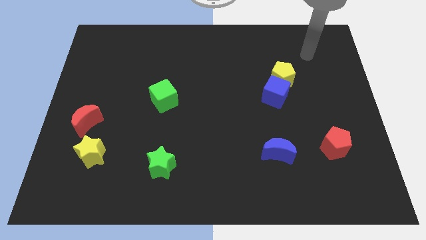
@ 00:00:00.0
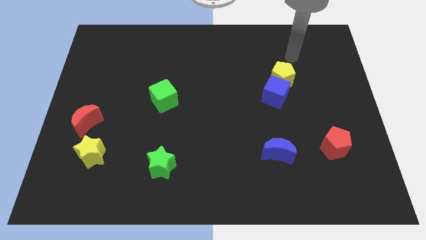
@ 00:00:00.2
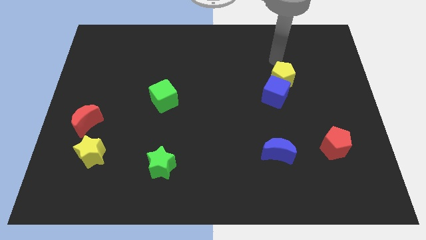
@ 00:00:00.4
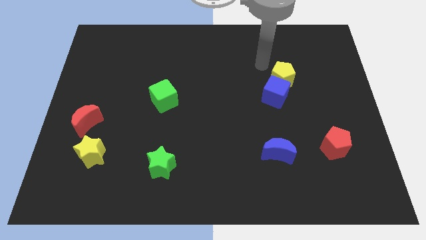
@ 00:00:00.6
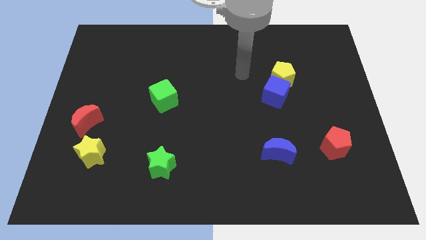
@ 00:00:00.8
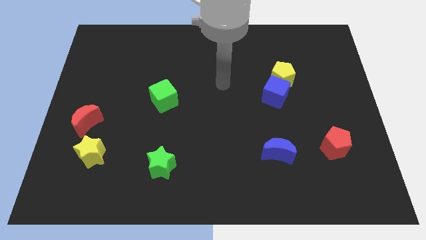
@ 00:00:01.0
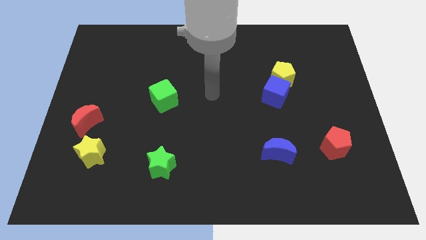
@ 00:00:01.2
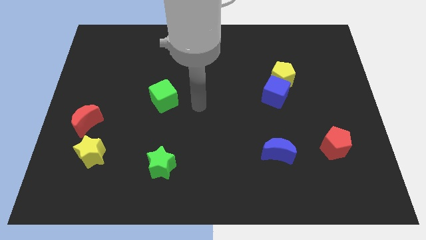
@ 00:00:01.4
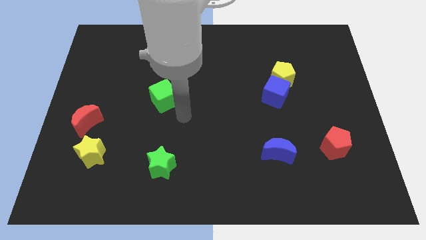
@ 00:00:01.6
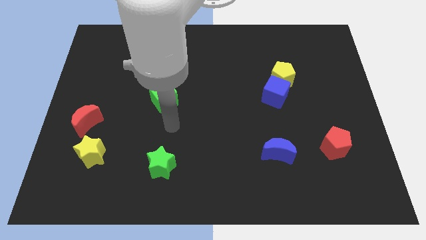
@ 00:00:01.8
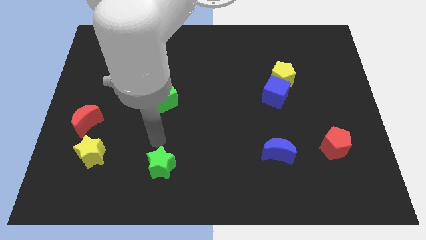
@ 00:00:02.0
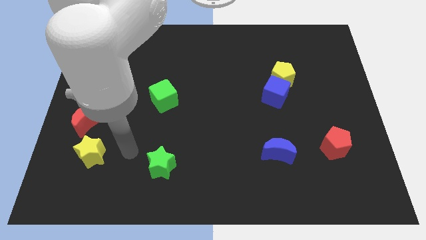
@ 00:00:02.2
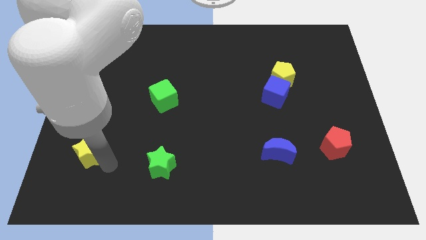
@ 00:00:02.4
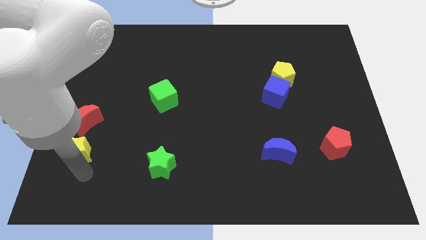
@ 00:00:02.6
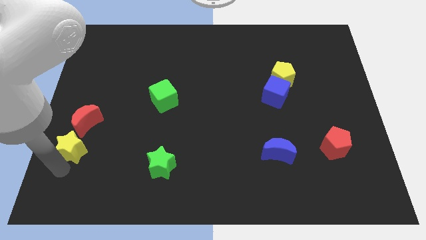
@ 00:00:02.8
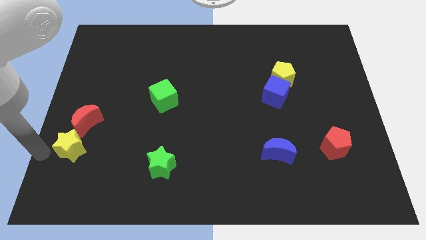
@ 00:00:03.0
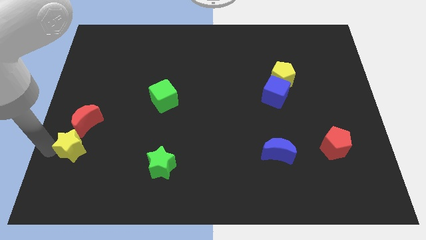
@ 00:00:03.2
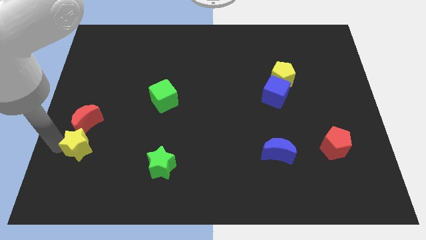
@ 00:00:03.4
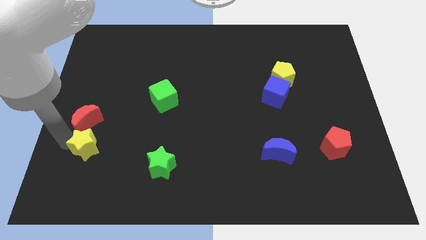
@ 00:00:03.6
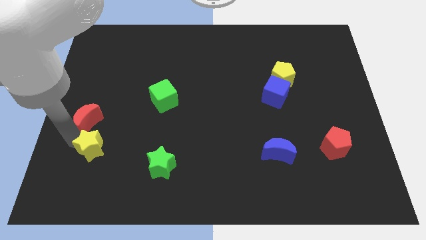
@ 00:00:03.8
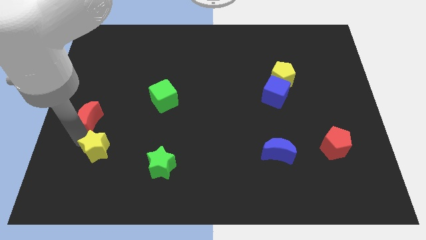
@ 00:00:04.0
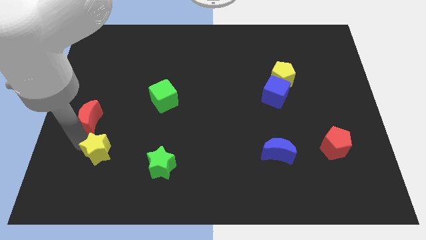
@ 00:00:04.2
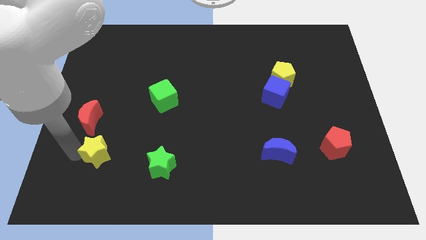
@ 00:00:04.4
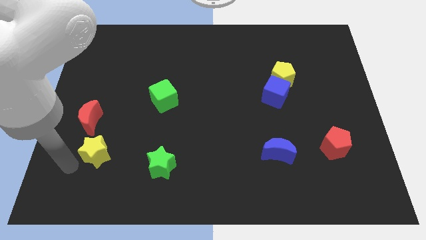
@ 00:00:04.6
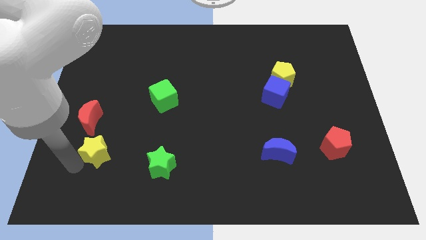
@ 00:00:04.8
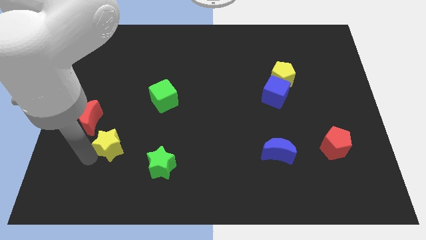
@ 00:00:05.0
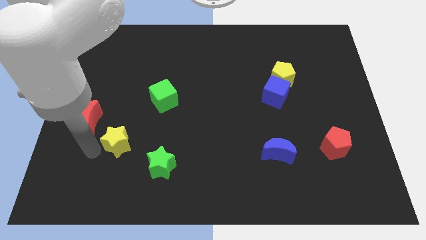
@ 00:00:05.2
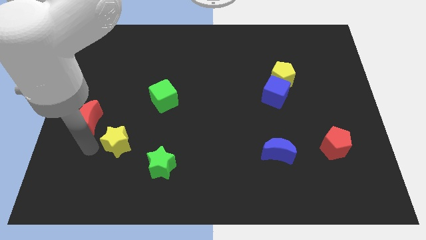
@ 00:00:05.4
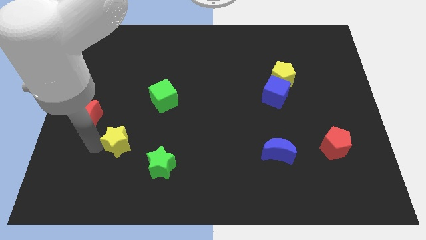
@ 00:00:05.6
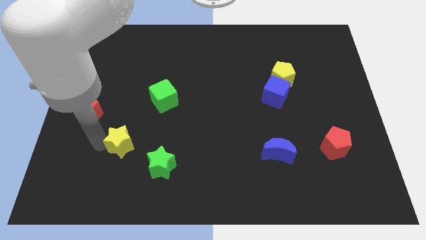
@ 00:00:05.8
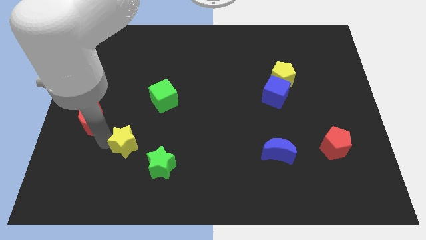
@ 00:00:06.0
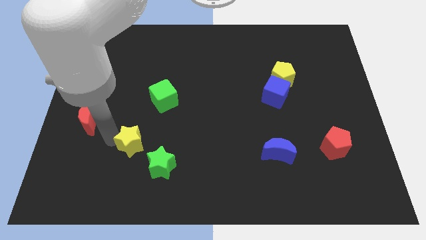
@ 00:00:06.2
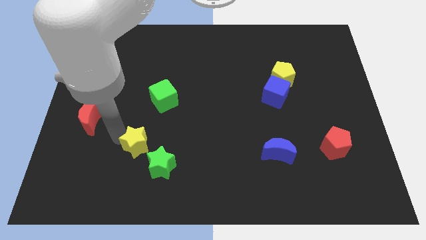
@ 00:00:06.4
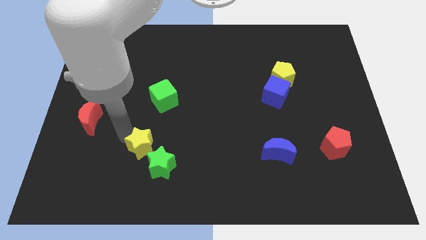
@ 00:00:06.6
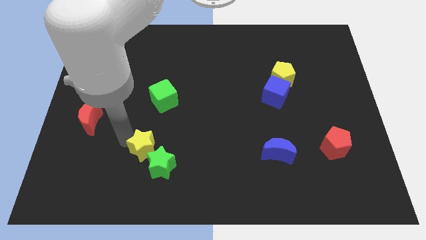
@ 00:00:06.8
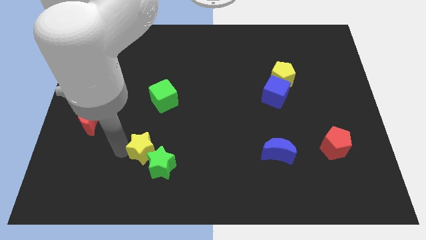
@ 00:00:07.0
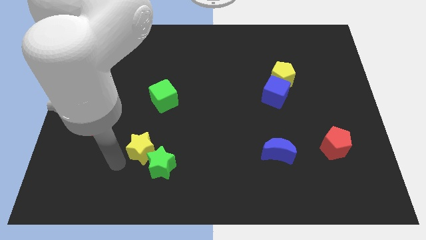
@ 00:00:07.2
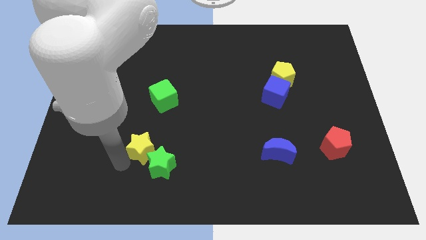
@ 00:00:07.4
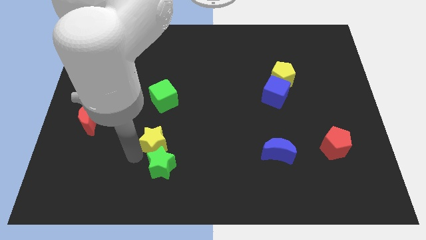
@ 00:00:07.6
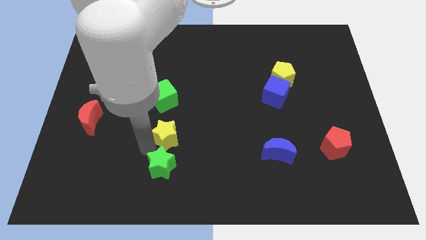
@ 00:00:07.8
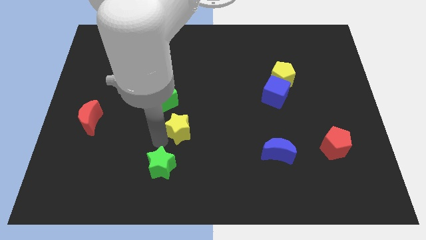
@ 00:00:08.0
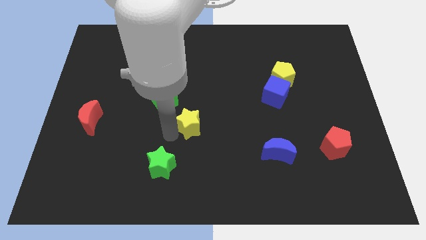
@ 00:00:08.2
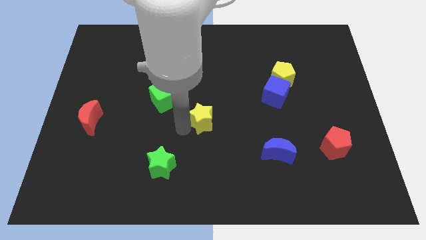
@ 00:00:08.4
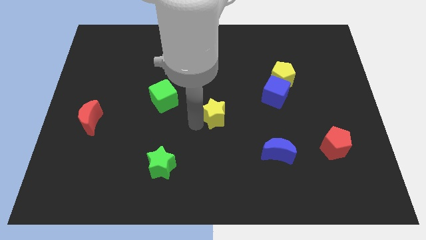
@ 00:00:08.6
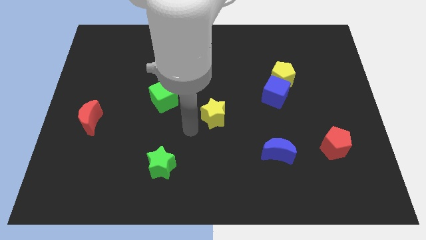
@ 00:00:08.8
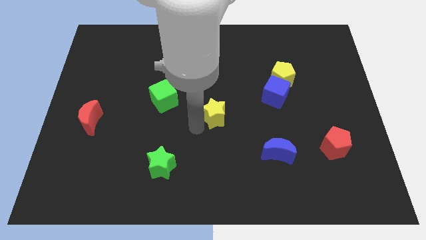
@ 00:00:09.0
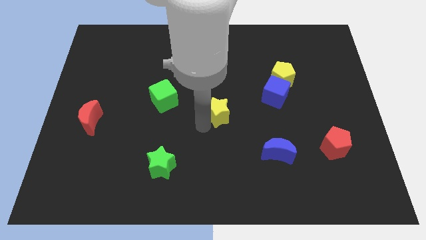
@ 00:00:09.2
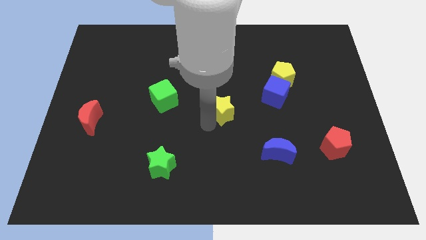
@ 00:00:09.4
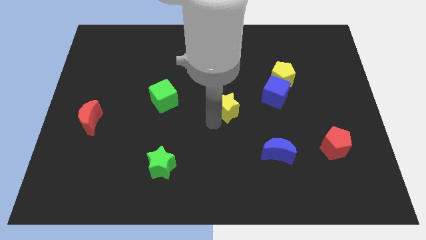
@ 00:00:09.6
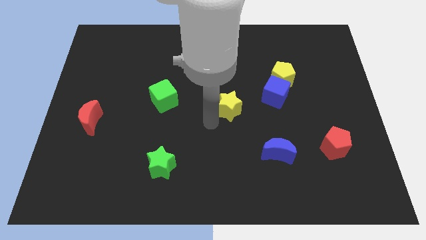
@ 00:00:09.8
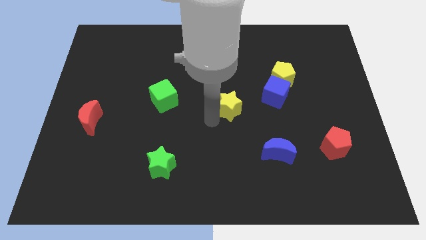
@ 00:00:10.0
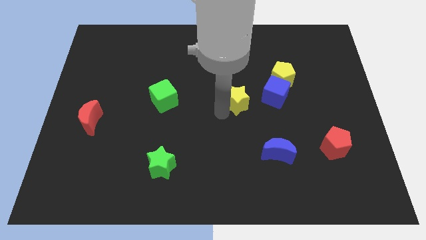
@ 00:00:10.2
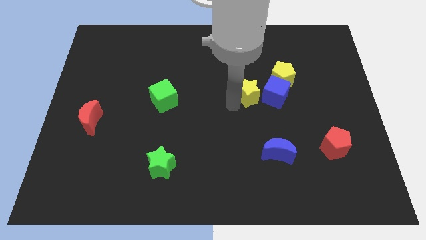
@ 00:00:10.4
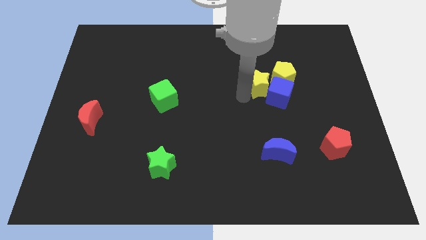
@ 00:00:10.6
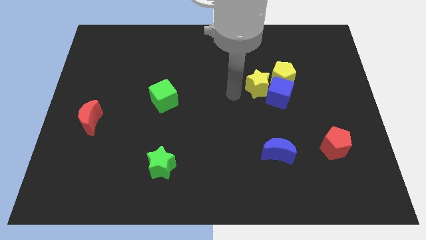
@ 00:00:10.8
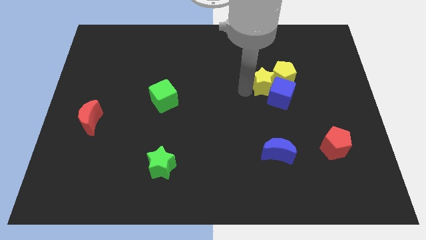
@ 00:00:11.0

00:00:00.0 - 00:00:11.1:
slide the yellow star towards the yellow pentagon

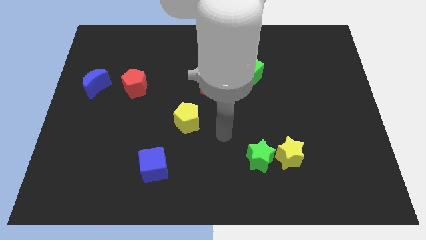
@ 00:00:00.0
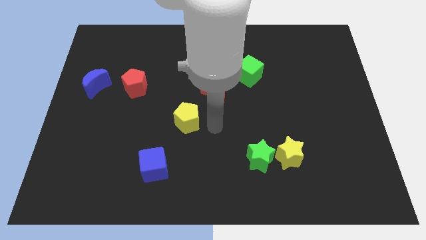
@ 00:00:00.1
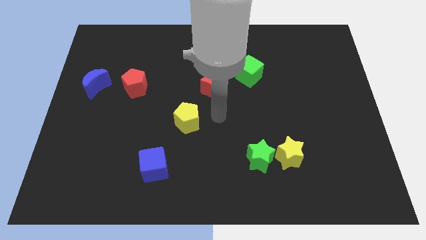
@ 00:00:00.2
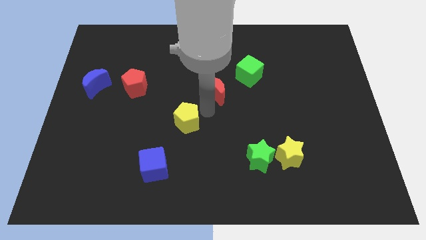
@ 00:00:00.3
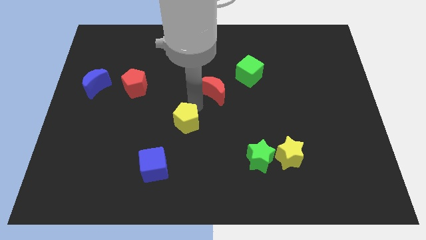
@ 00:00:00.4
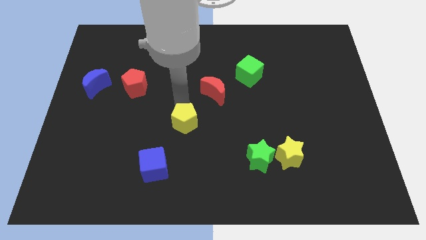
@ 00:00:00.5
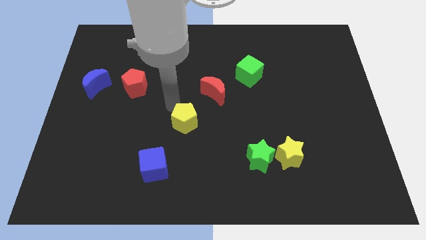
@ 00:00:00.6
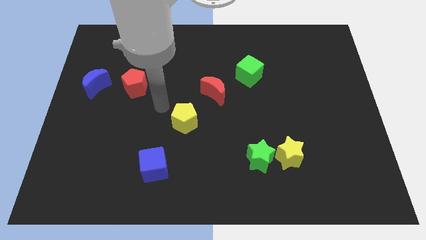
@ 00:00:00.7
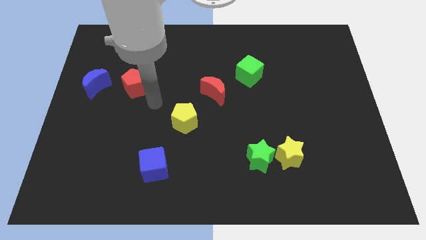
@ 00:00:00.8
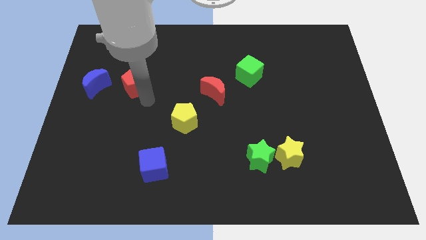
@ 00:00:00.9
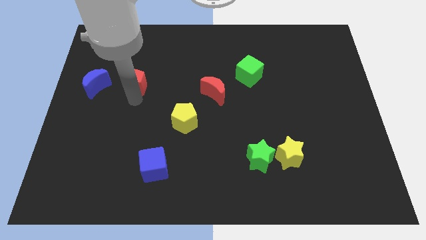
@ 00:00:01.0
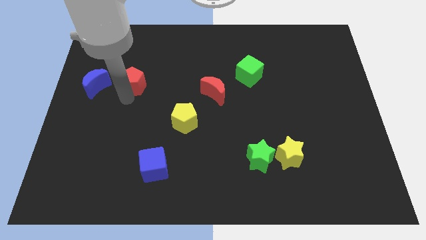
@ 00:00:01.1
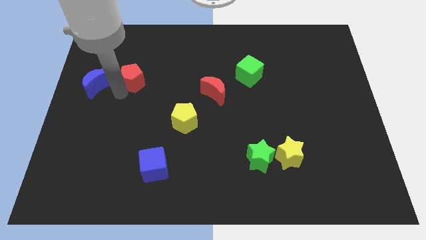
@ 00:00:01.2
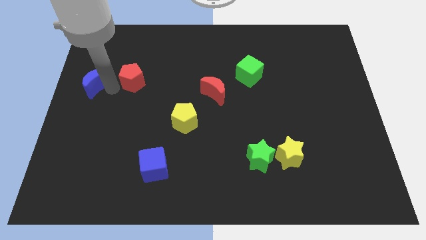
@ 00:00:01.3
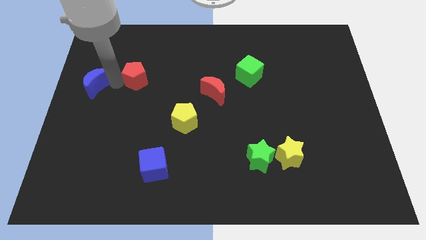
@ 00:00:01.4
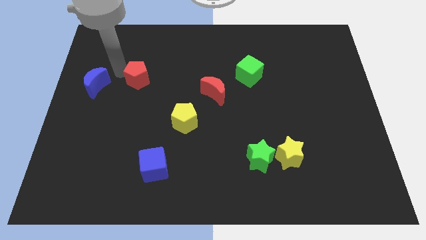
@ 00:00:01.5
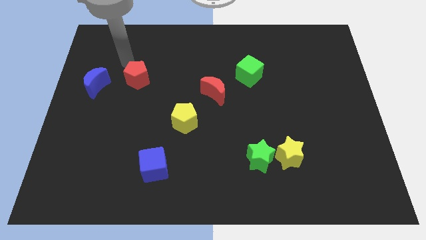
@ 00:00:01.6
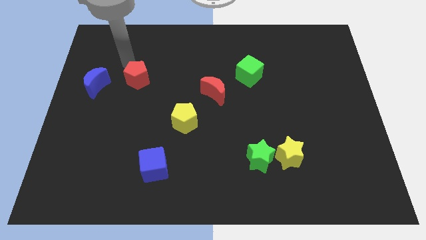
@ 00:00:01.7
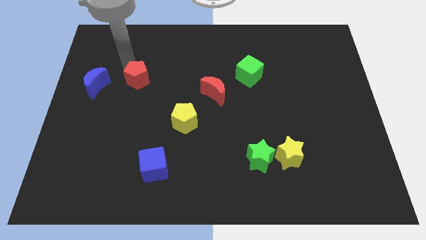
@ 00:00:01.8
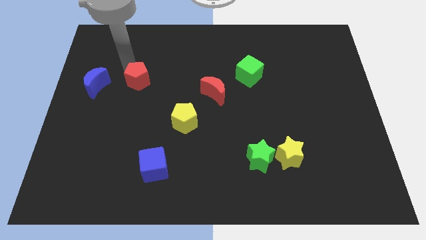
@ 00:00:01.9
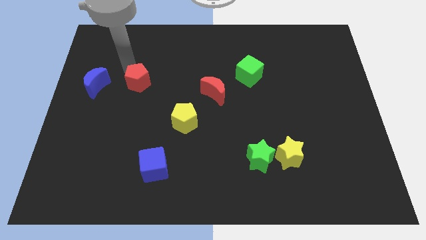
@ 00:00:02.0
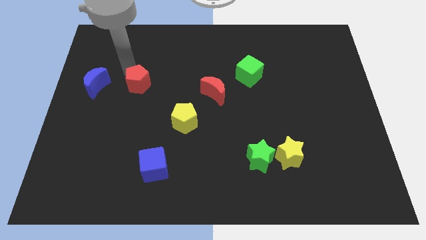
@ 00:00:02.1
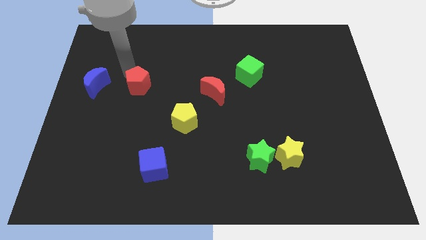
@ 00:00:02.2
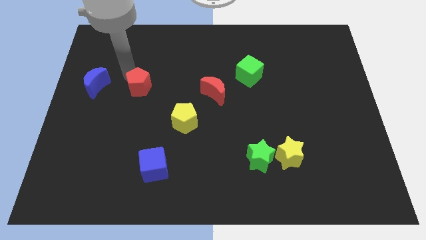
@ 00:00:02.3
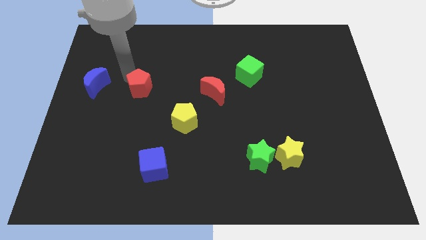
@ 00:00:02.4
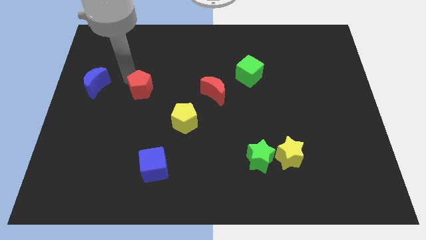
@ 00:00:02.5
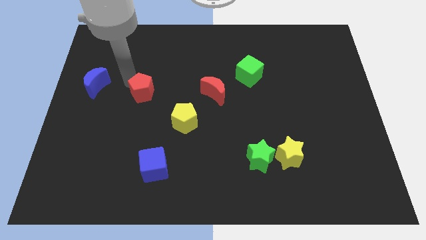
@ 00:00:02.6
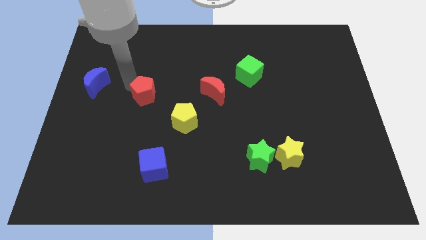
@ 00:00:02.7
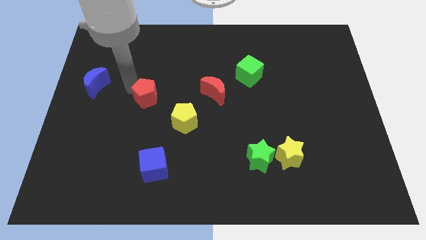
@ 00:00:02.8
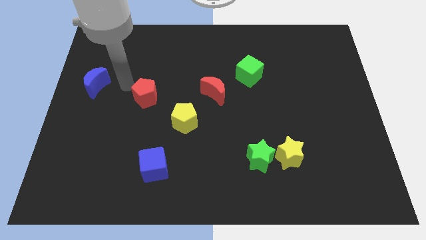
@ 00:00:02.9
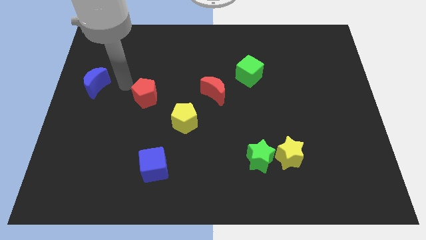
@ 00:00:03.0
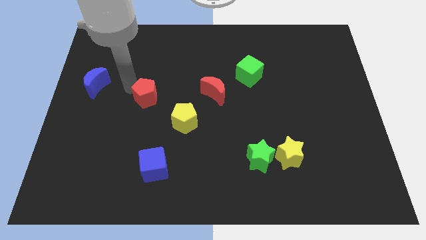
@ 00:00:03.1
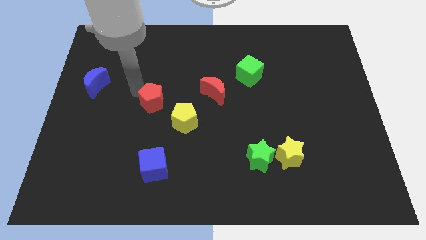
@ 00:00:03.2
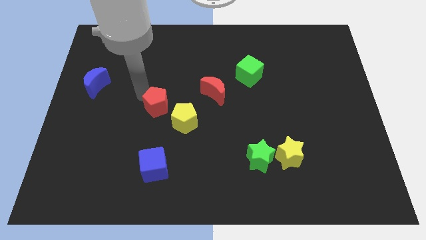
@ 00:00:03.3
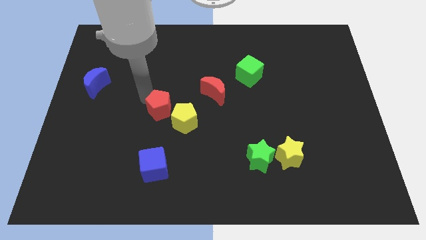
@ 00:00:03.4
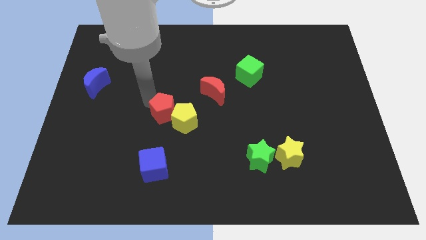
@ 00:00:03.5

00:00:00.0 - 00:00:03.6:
slide the red pentagon towards the yellow pentagon
